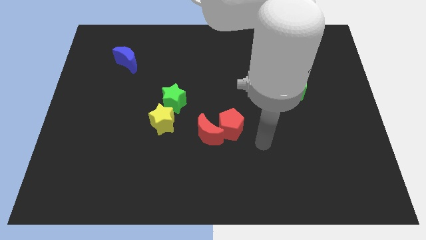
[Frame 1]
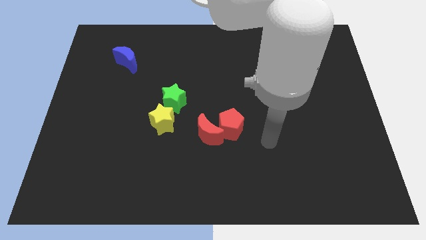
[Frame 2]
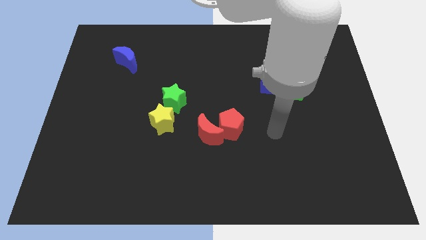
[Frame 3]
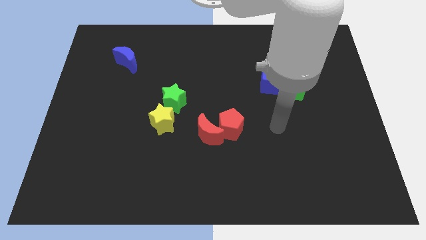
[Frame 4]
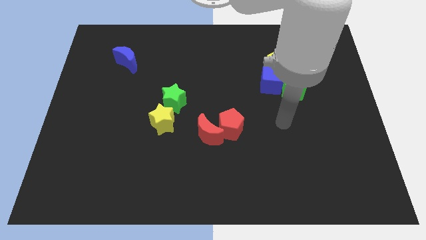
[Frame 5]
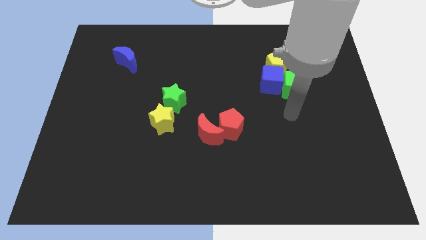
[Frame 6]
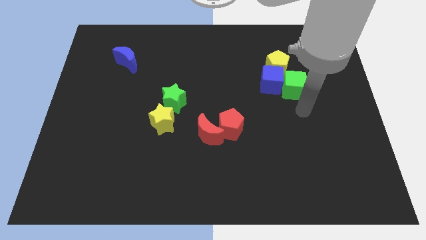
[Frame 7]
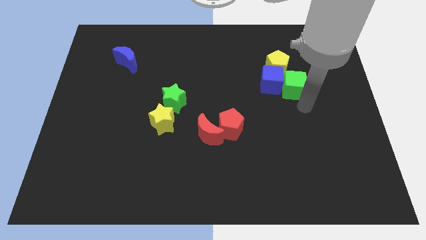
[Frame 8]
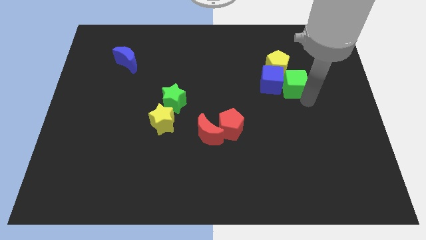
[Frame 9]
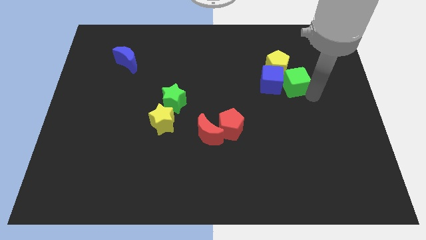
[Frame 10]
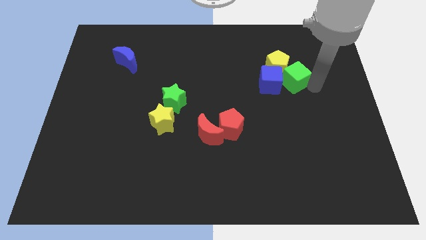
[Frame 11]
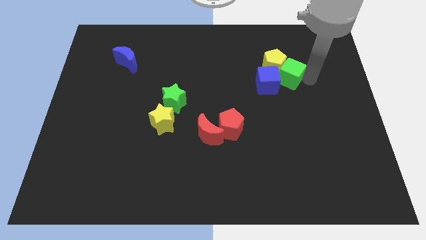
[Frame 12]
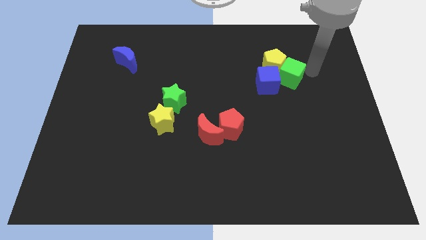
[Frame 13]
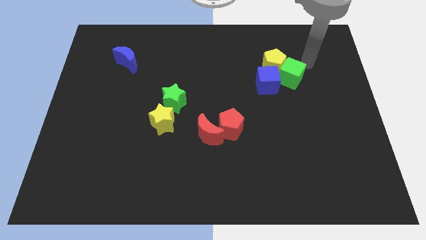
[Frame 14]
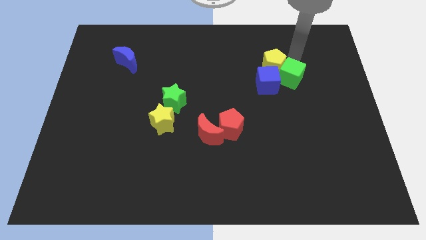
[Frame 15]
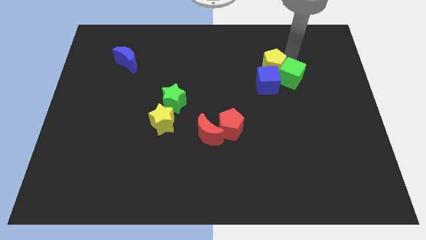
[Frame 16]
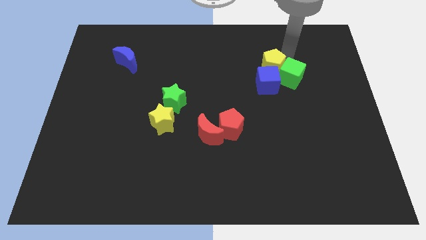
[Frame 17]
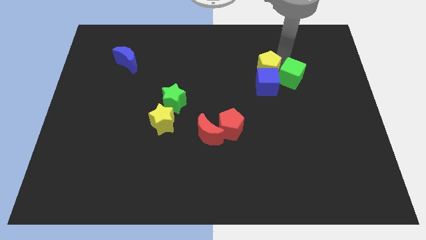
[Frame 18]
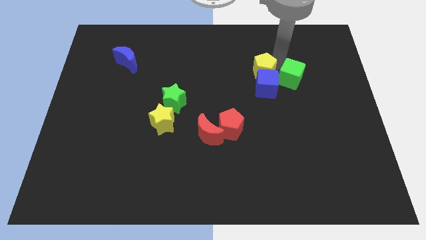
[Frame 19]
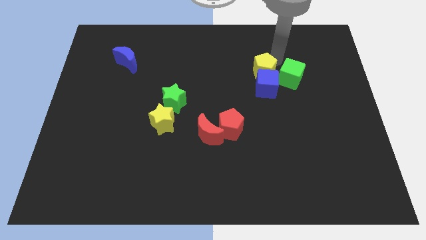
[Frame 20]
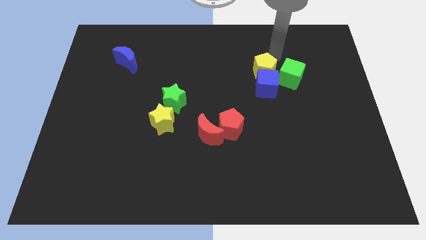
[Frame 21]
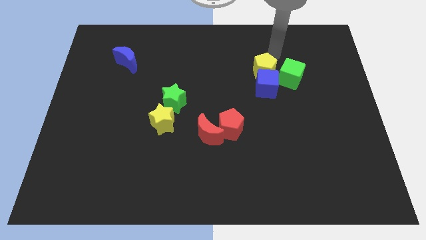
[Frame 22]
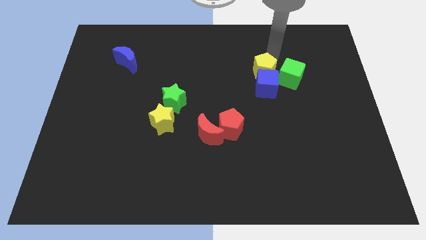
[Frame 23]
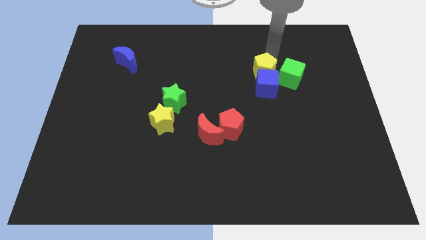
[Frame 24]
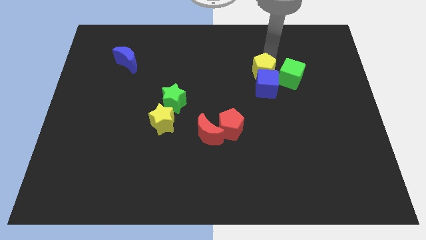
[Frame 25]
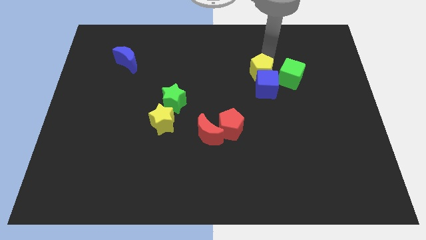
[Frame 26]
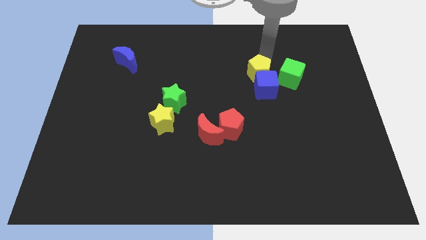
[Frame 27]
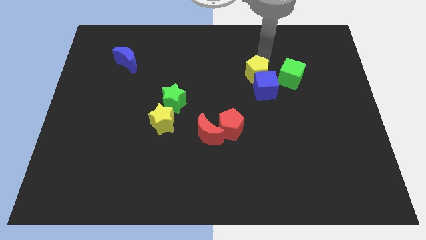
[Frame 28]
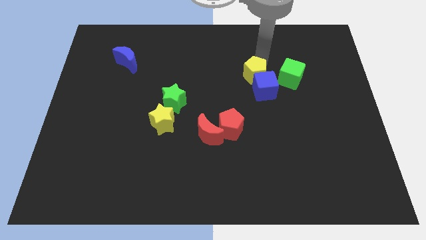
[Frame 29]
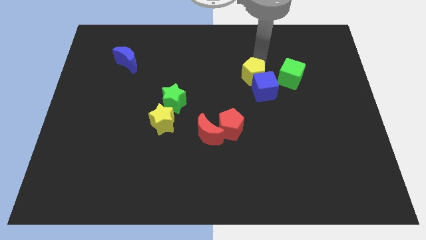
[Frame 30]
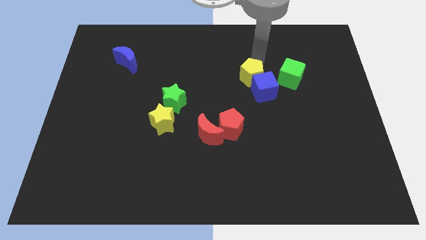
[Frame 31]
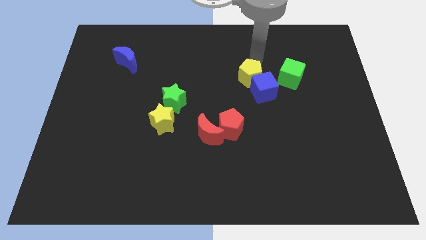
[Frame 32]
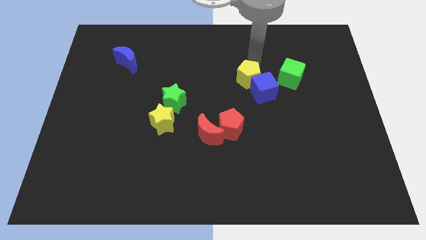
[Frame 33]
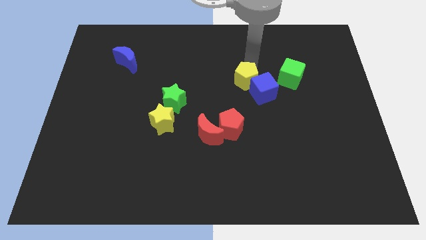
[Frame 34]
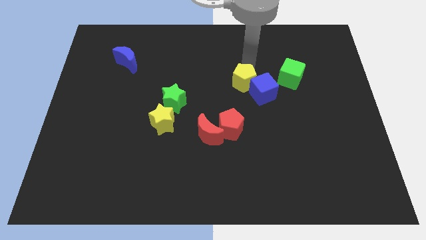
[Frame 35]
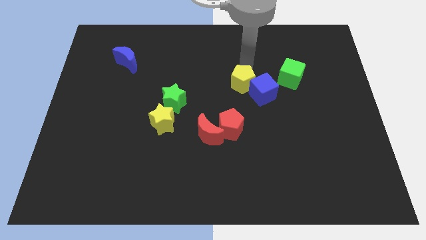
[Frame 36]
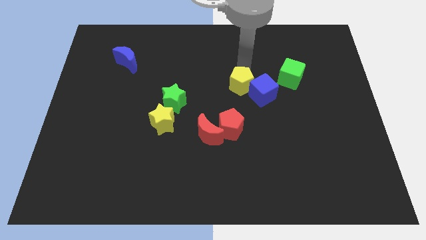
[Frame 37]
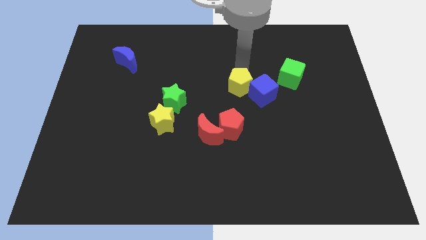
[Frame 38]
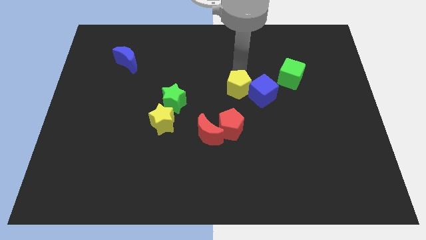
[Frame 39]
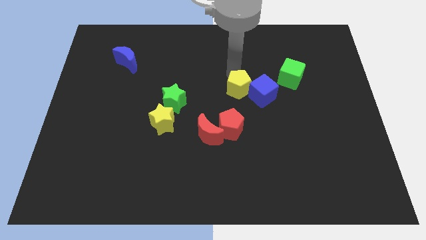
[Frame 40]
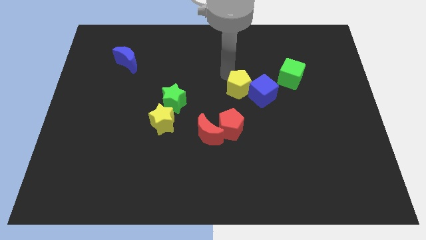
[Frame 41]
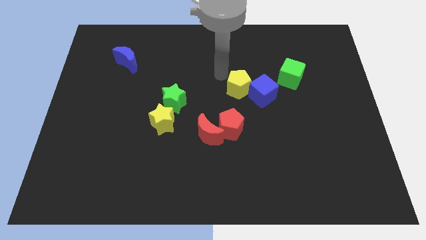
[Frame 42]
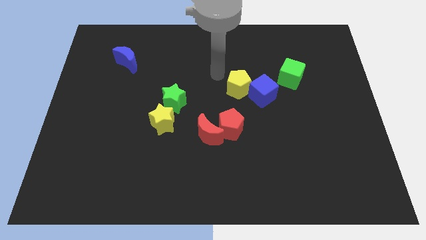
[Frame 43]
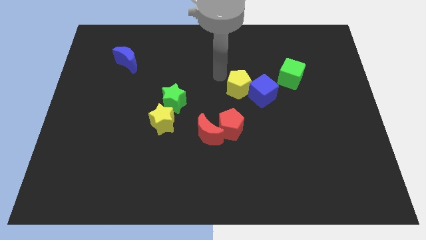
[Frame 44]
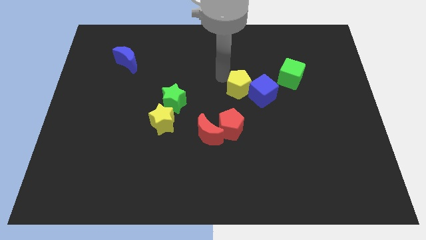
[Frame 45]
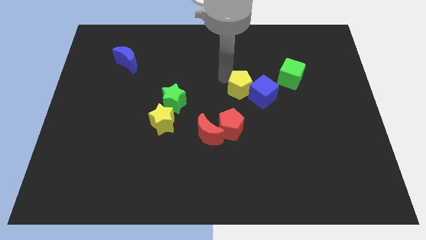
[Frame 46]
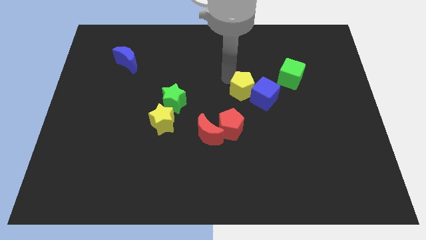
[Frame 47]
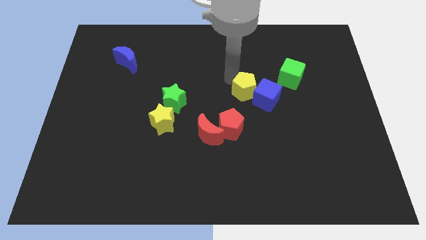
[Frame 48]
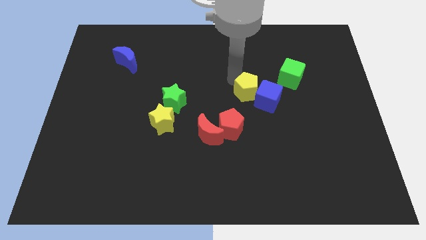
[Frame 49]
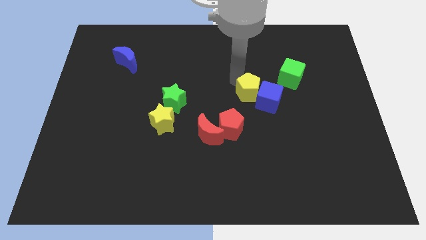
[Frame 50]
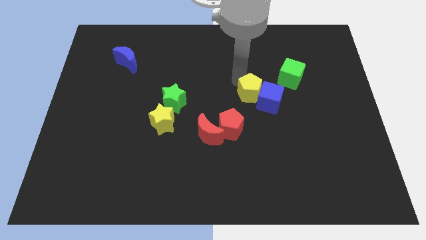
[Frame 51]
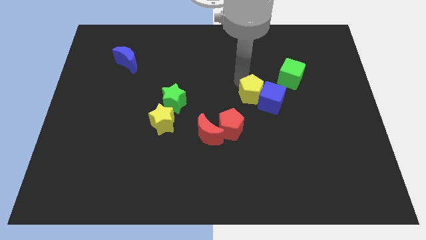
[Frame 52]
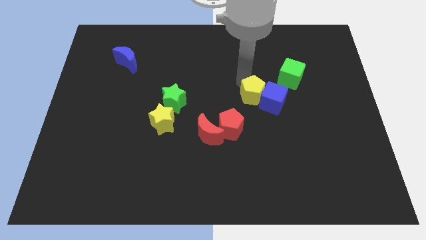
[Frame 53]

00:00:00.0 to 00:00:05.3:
move the yellow pentagon down slightly

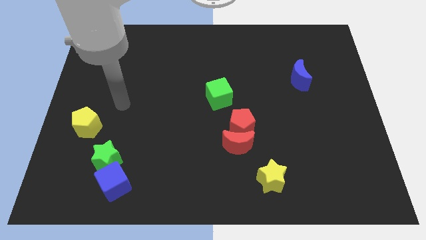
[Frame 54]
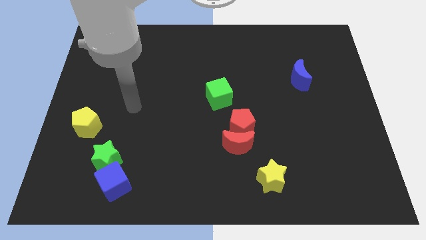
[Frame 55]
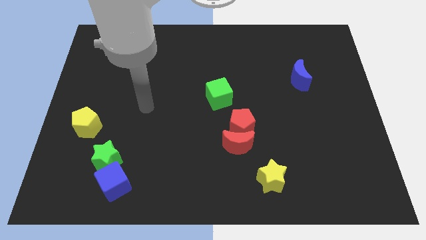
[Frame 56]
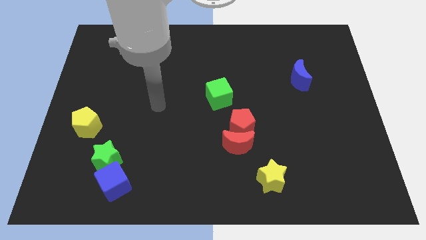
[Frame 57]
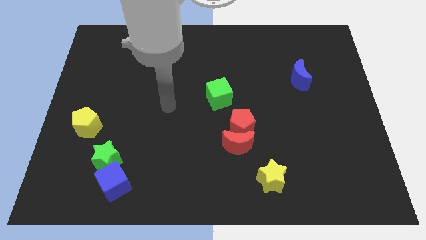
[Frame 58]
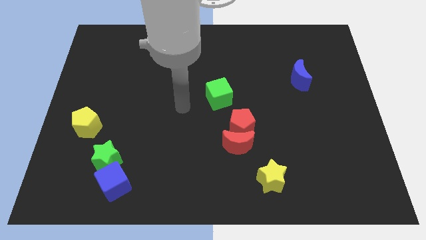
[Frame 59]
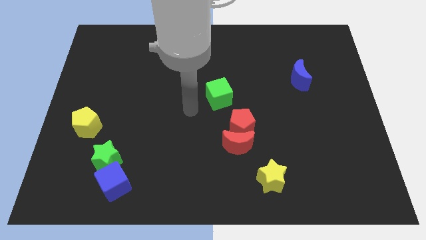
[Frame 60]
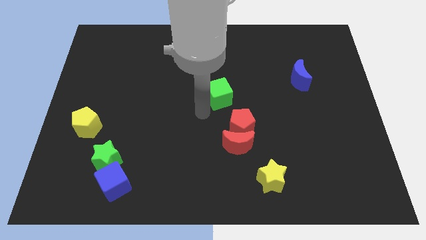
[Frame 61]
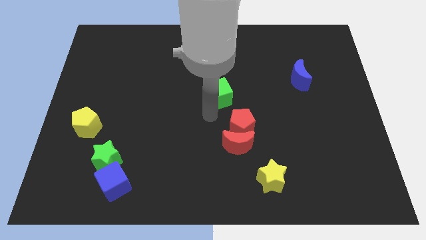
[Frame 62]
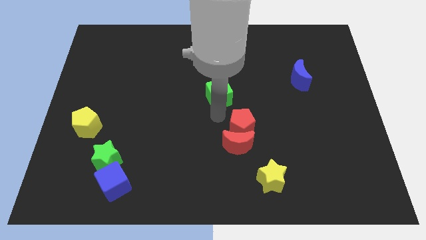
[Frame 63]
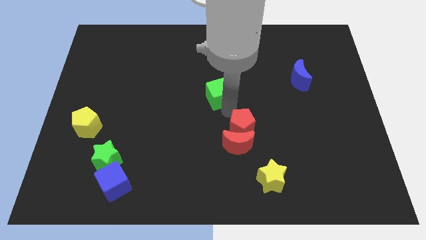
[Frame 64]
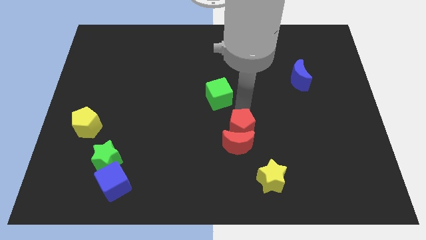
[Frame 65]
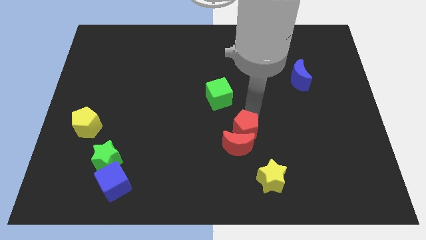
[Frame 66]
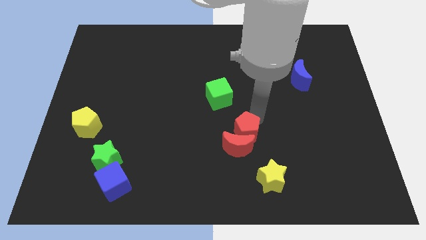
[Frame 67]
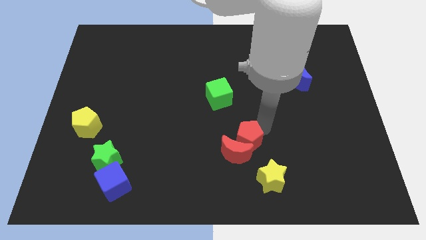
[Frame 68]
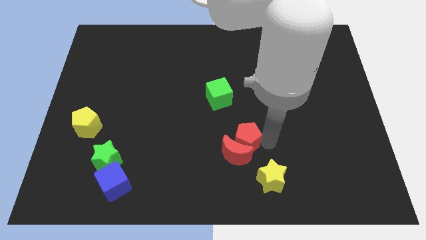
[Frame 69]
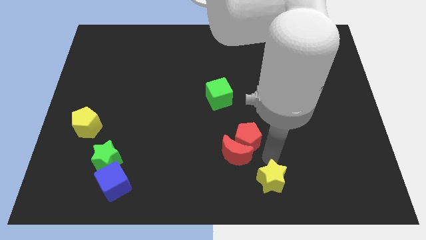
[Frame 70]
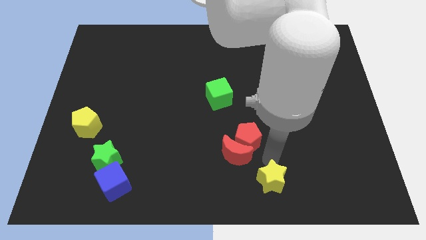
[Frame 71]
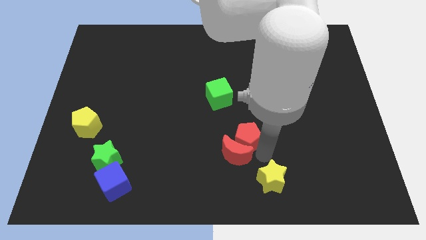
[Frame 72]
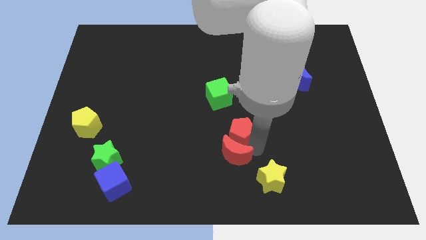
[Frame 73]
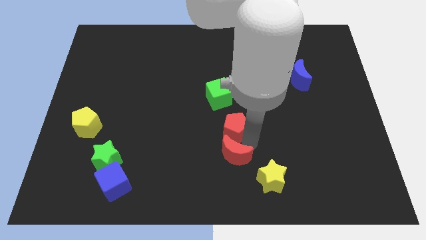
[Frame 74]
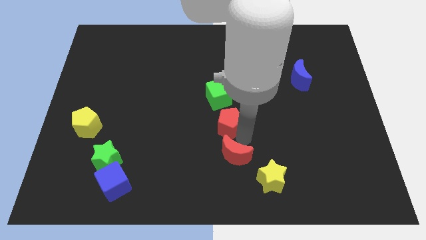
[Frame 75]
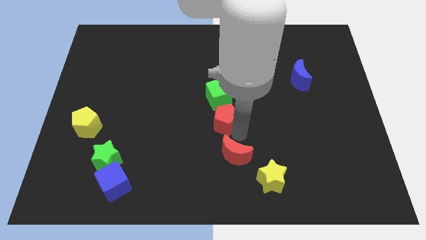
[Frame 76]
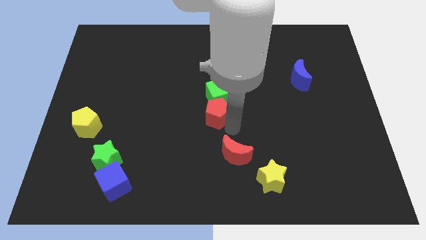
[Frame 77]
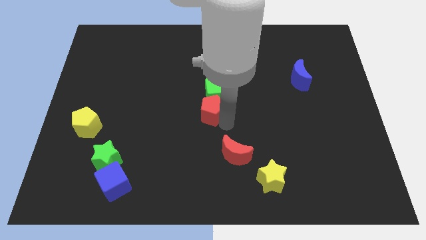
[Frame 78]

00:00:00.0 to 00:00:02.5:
slide the red pentagon a bit upwards and left

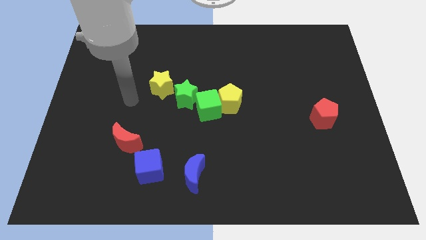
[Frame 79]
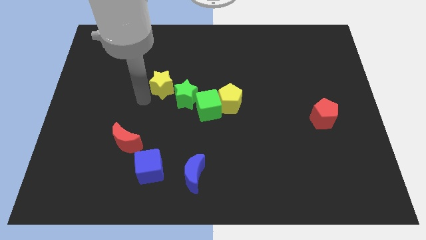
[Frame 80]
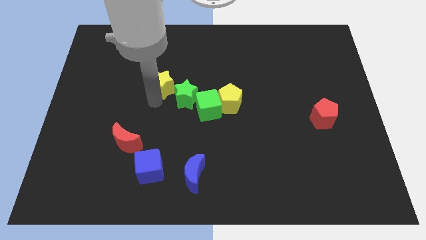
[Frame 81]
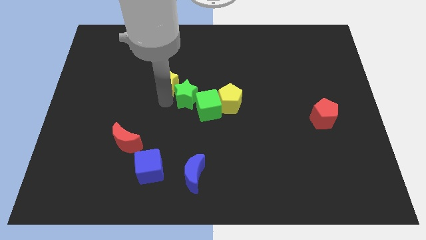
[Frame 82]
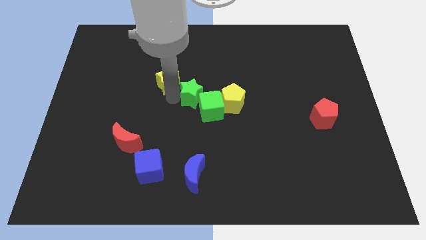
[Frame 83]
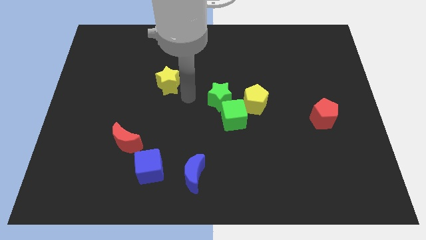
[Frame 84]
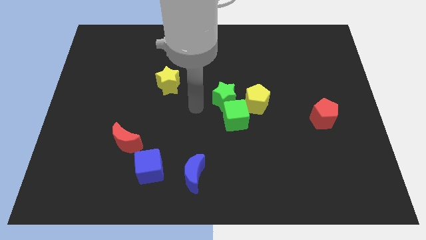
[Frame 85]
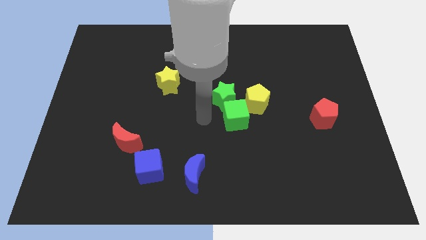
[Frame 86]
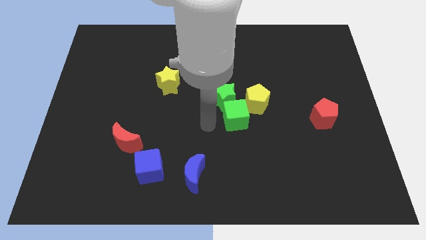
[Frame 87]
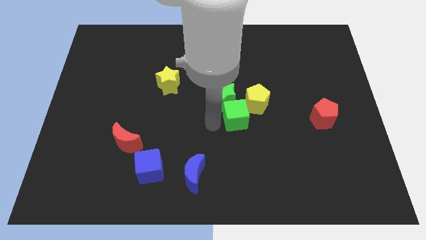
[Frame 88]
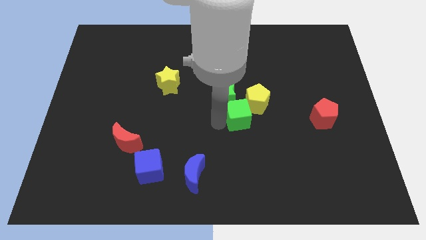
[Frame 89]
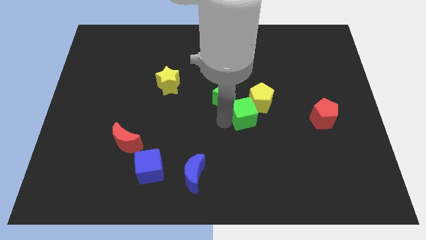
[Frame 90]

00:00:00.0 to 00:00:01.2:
push the green cube right a little bit
